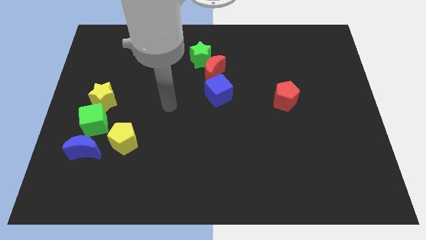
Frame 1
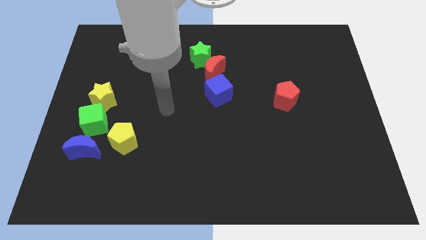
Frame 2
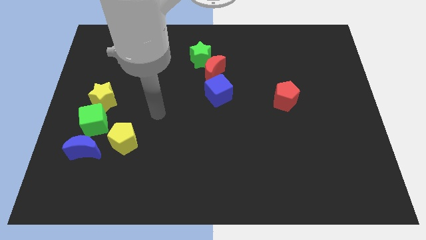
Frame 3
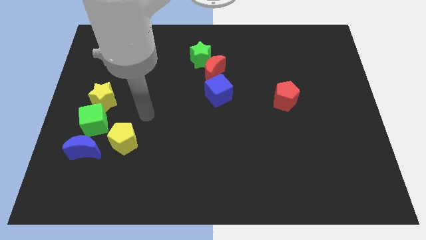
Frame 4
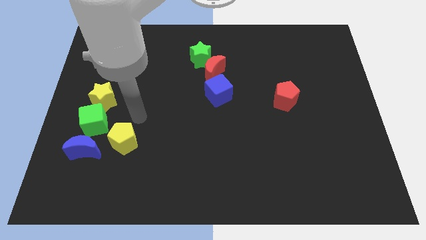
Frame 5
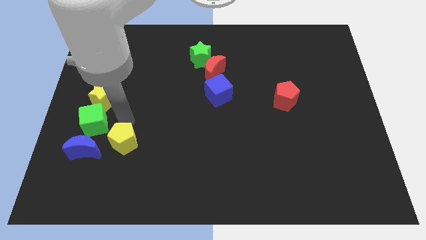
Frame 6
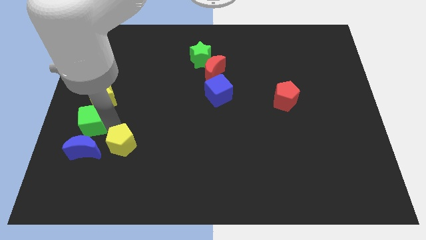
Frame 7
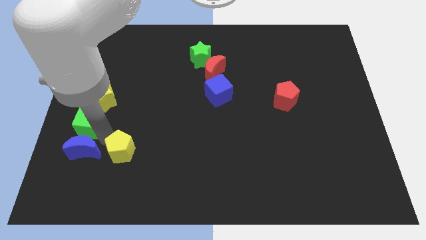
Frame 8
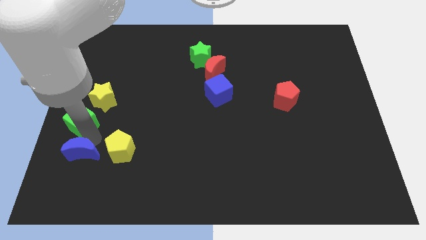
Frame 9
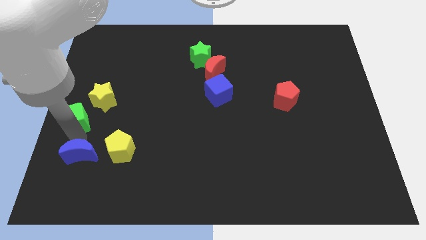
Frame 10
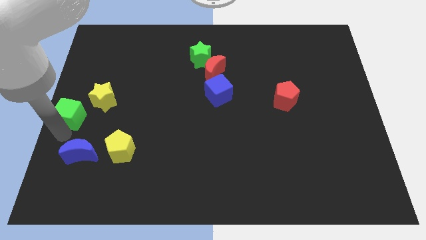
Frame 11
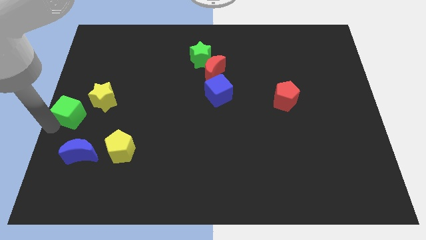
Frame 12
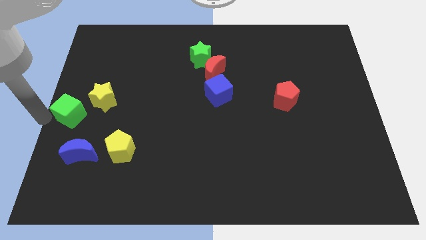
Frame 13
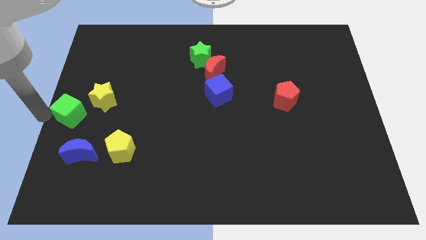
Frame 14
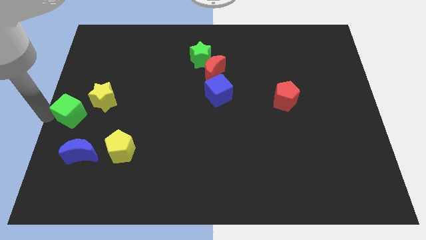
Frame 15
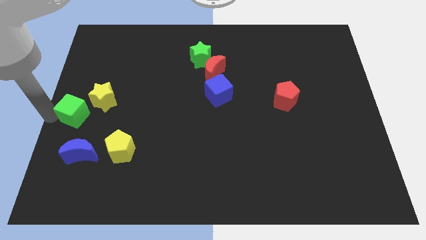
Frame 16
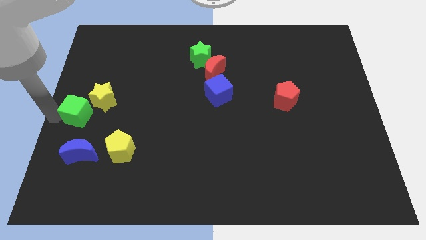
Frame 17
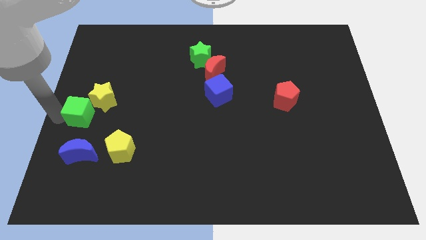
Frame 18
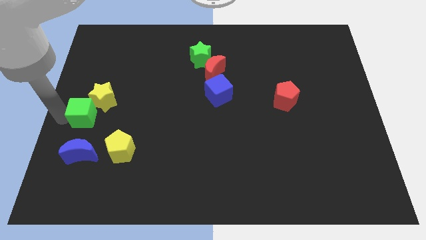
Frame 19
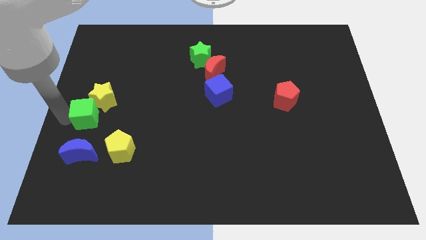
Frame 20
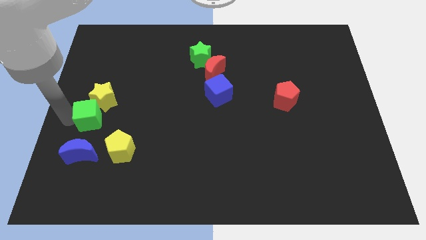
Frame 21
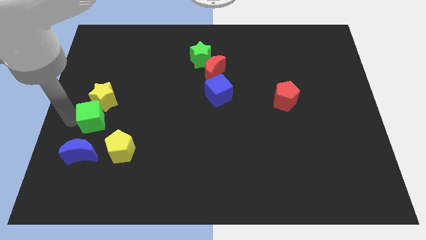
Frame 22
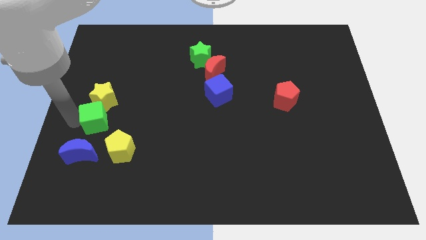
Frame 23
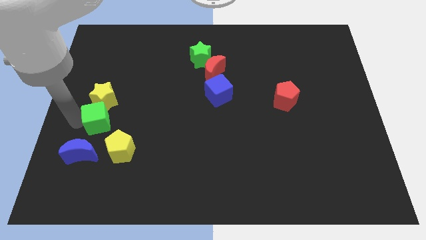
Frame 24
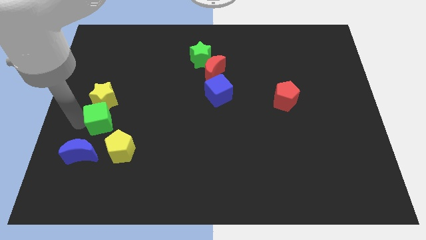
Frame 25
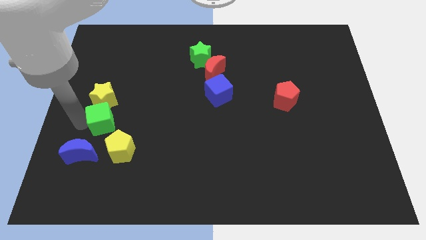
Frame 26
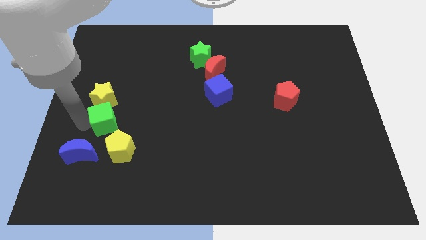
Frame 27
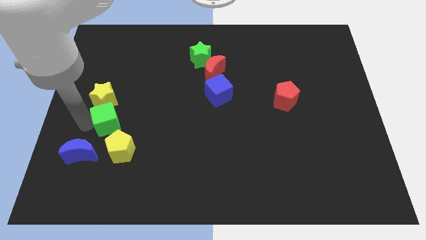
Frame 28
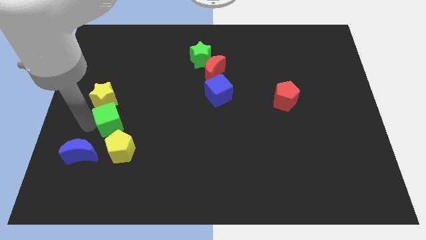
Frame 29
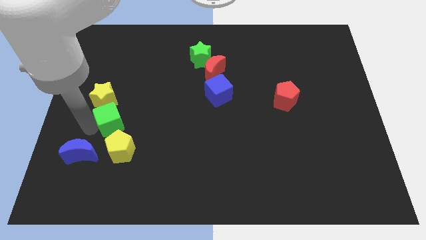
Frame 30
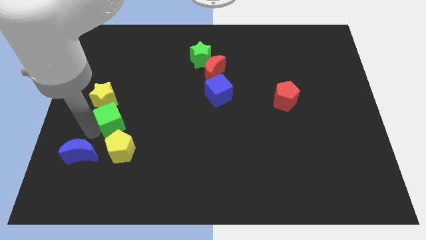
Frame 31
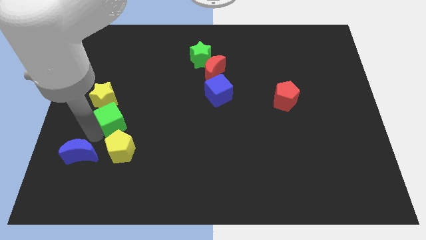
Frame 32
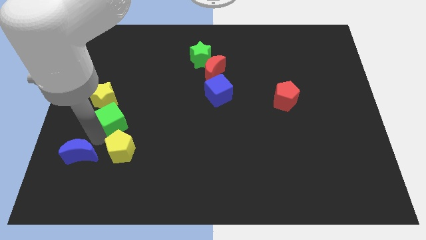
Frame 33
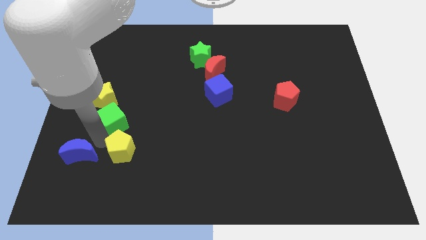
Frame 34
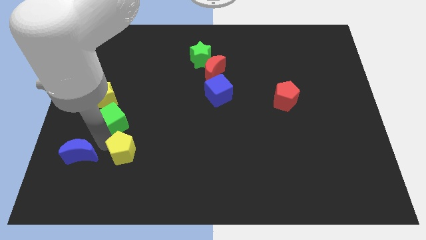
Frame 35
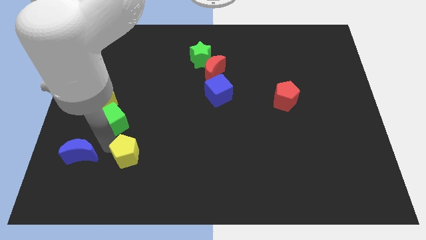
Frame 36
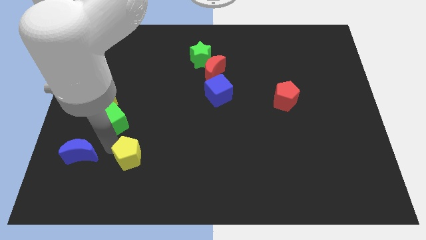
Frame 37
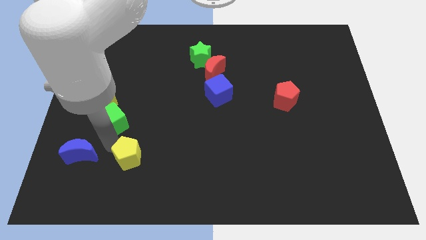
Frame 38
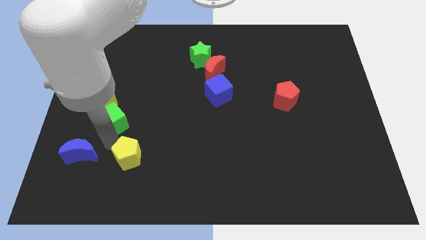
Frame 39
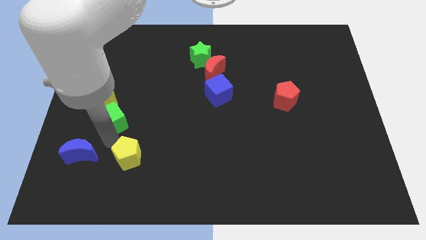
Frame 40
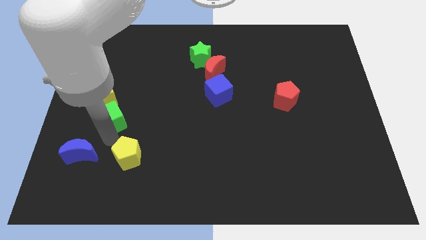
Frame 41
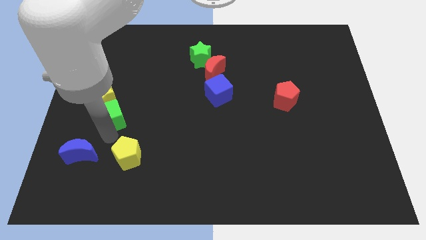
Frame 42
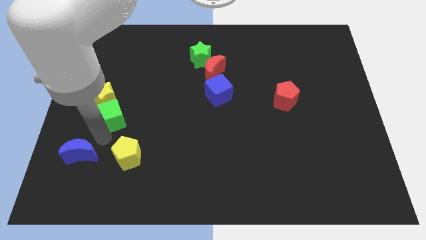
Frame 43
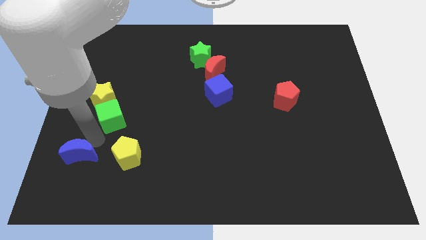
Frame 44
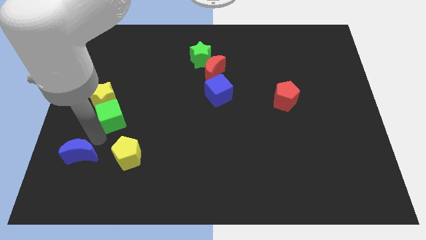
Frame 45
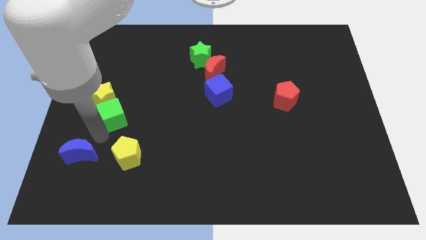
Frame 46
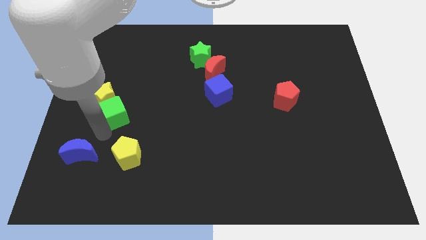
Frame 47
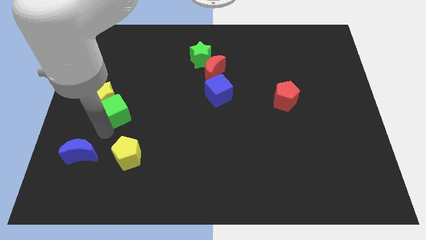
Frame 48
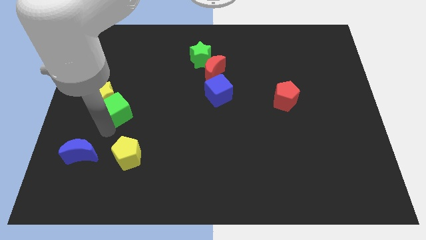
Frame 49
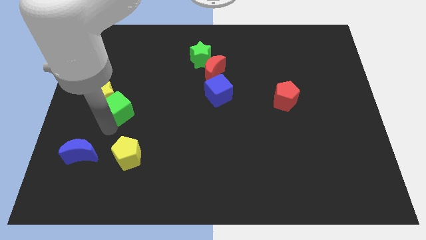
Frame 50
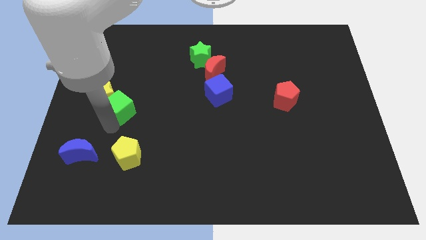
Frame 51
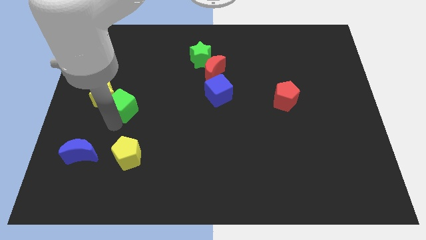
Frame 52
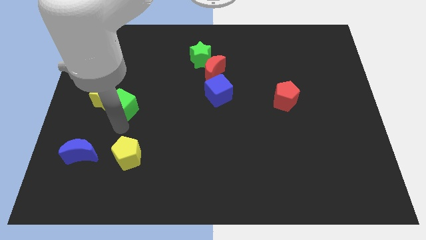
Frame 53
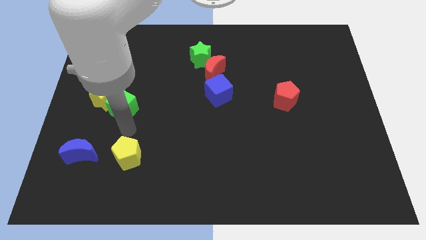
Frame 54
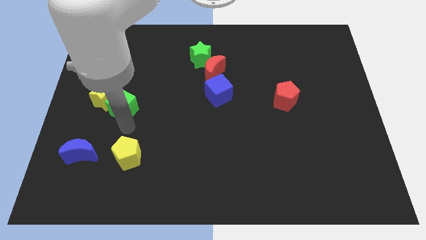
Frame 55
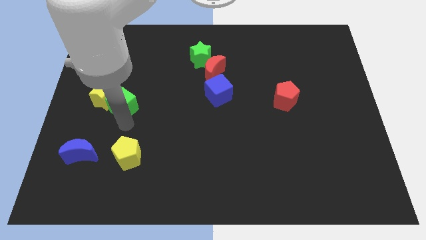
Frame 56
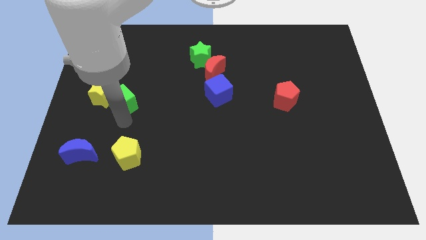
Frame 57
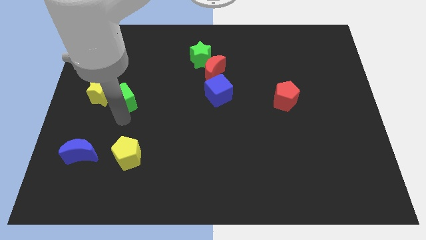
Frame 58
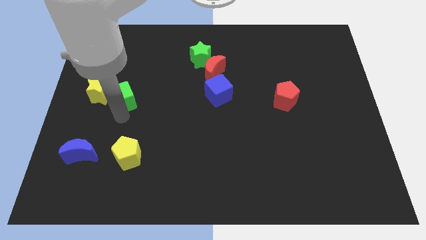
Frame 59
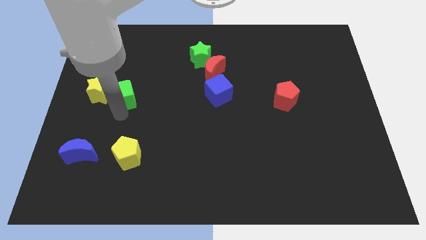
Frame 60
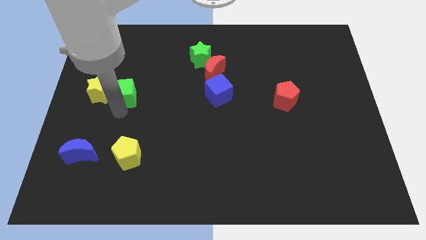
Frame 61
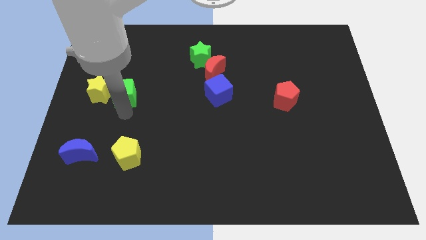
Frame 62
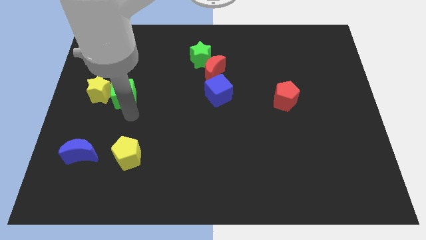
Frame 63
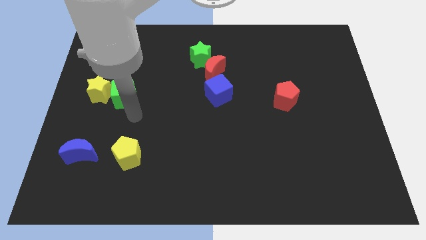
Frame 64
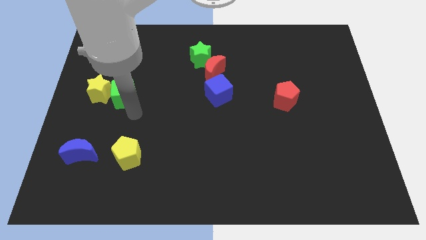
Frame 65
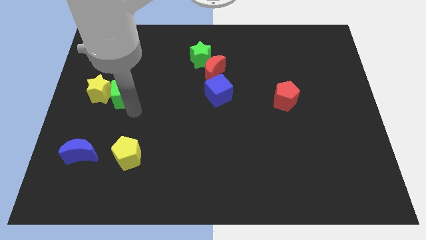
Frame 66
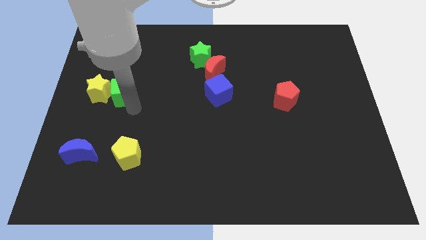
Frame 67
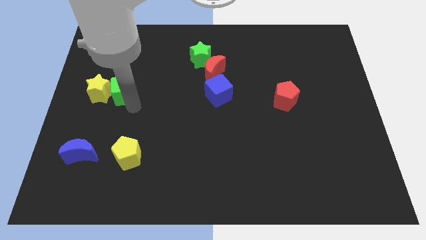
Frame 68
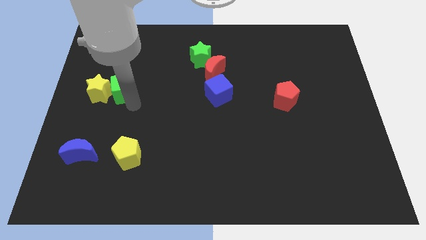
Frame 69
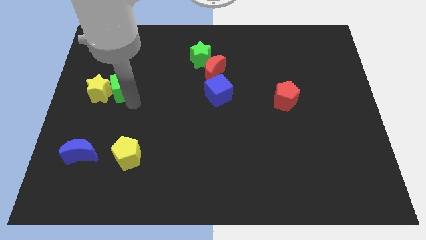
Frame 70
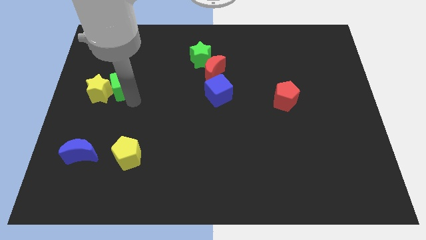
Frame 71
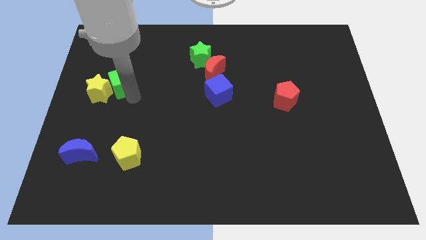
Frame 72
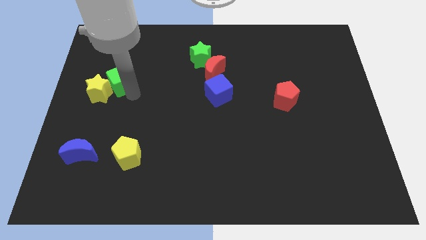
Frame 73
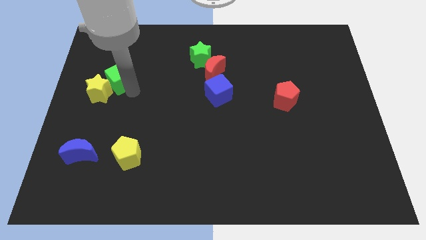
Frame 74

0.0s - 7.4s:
push the green cube to the top of the yellow star
